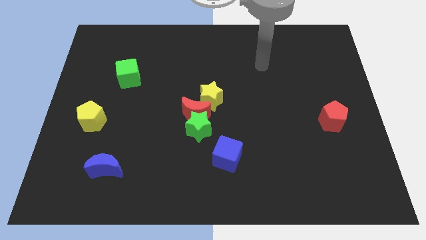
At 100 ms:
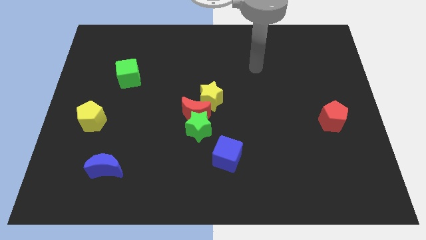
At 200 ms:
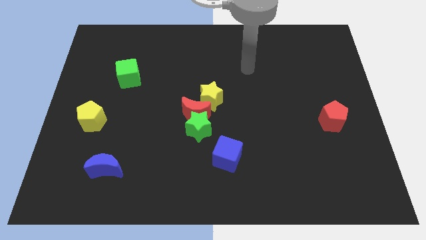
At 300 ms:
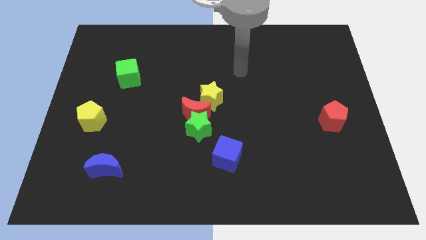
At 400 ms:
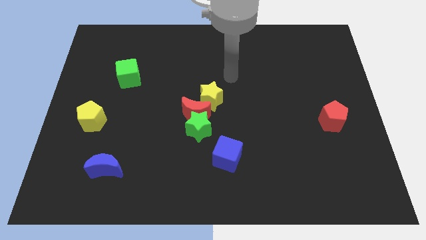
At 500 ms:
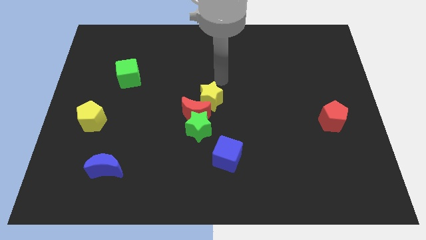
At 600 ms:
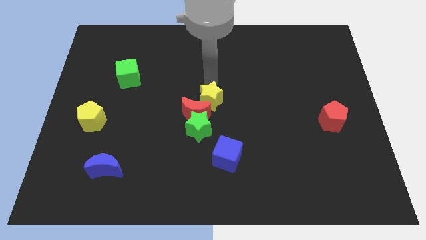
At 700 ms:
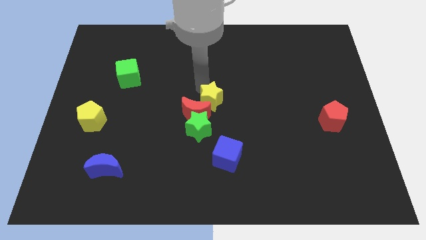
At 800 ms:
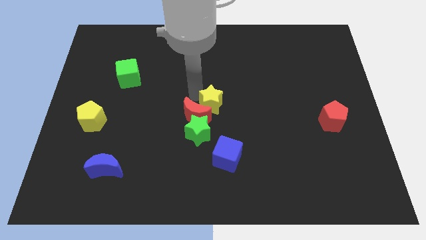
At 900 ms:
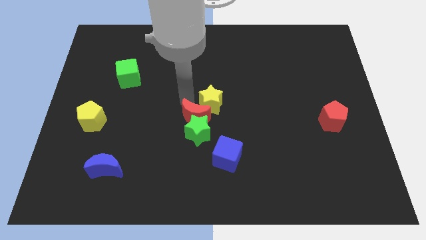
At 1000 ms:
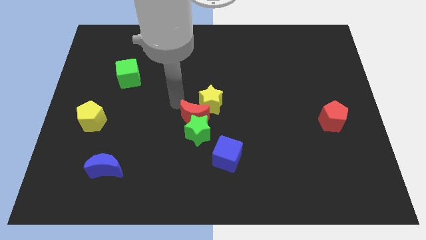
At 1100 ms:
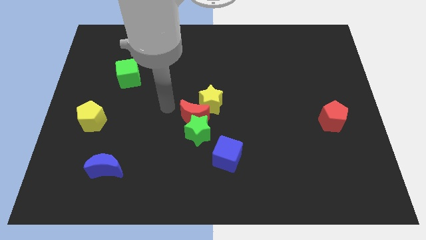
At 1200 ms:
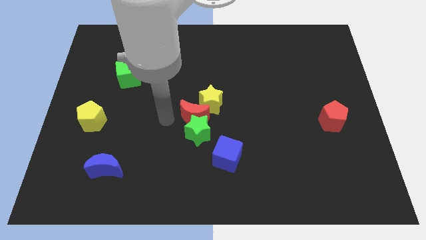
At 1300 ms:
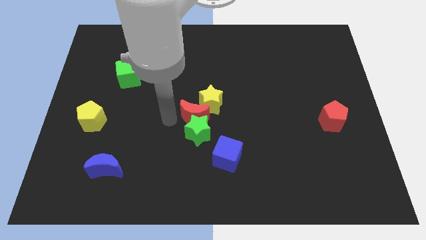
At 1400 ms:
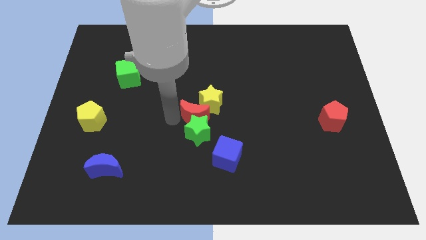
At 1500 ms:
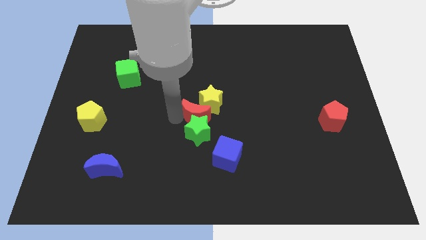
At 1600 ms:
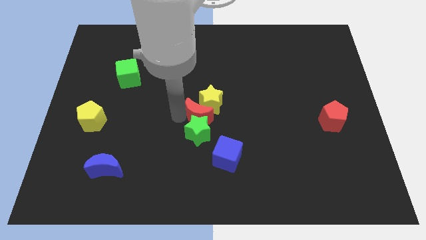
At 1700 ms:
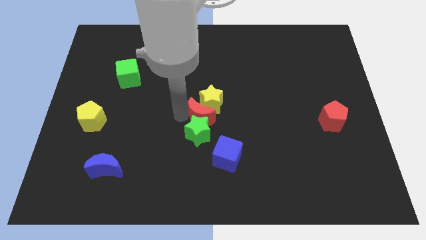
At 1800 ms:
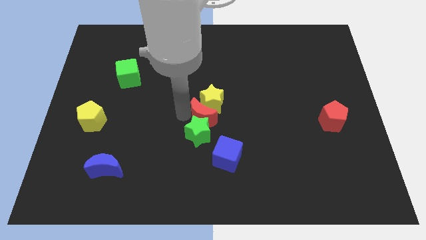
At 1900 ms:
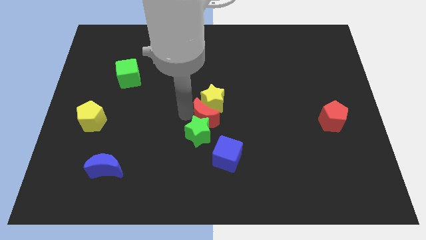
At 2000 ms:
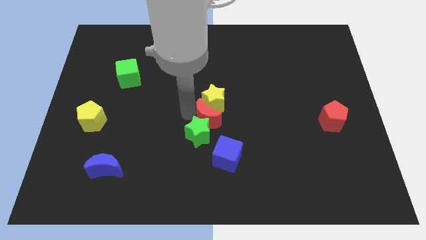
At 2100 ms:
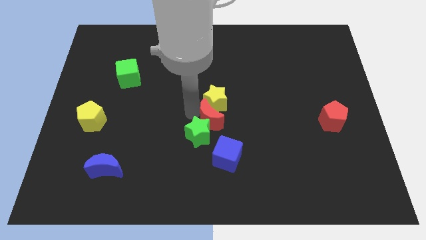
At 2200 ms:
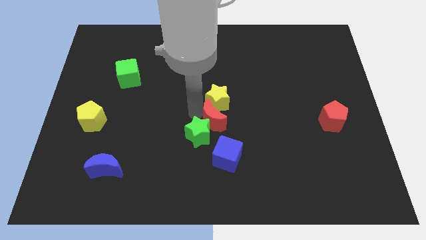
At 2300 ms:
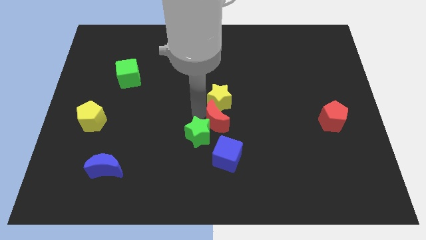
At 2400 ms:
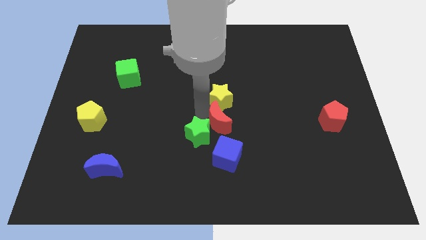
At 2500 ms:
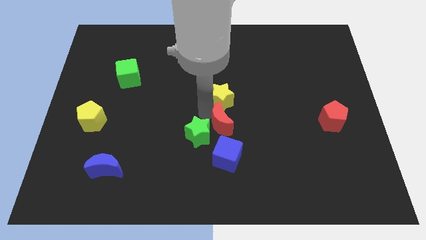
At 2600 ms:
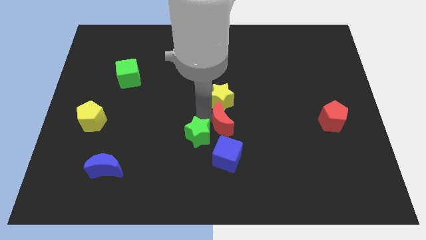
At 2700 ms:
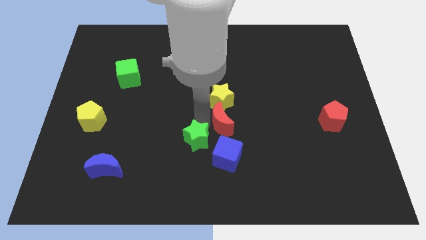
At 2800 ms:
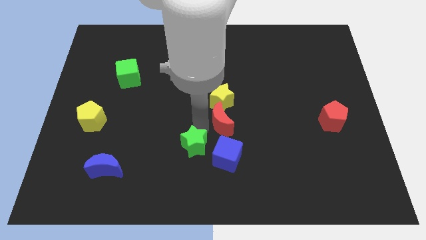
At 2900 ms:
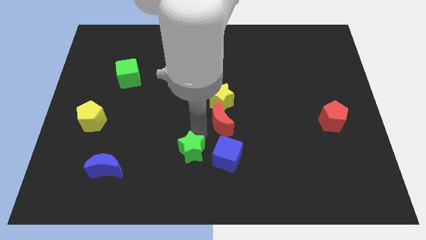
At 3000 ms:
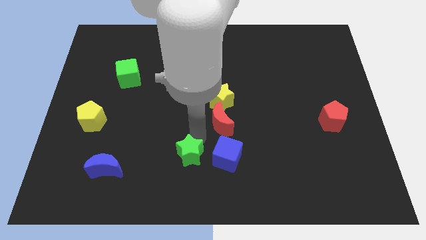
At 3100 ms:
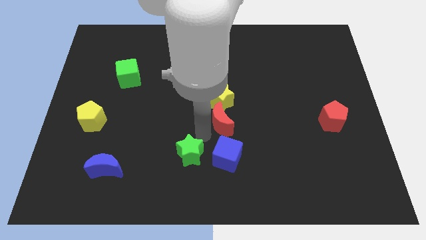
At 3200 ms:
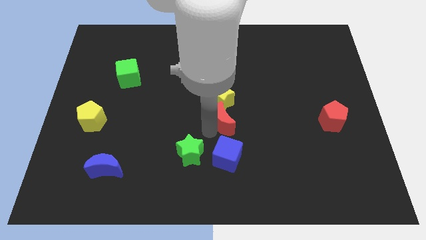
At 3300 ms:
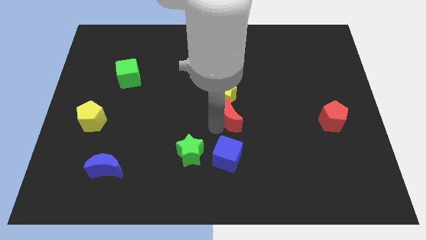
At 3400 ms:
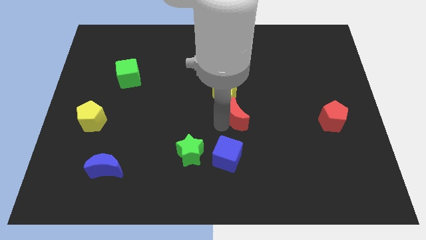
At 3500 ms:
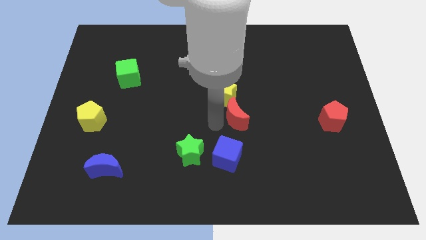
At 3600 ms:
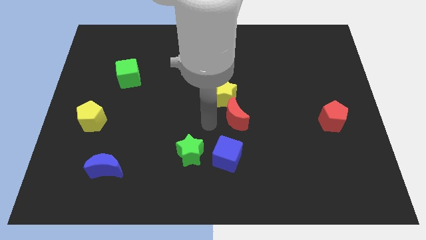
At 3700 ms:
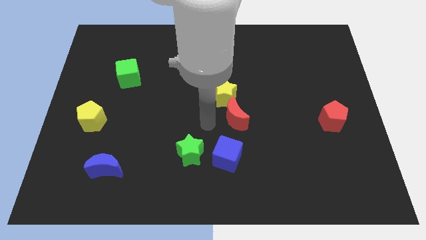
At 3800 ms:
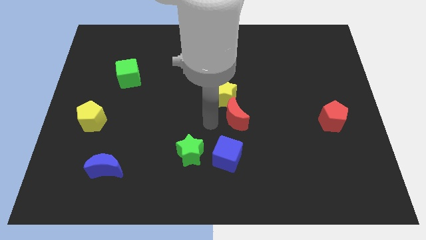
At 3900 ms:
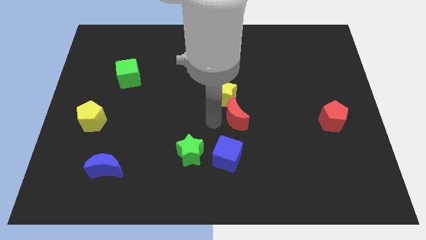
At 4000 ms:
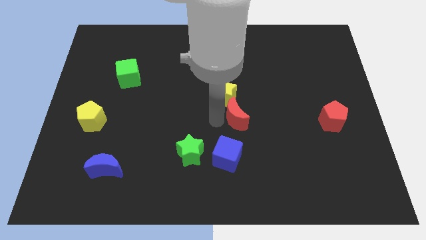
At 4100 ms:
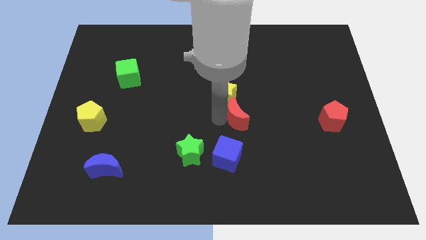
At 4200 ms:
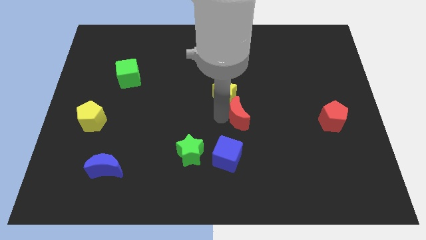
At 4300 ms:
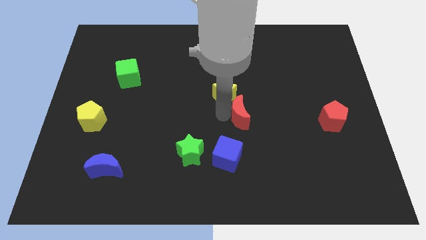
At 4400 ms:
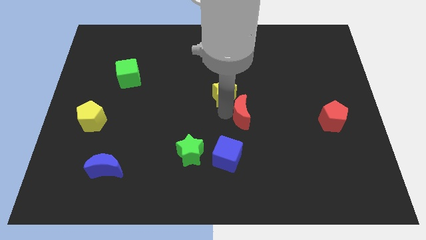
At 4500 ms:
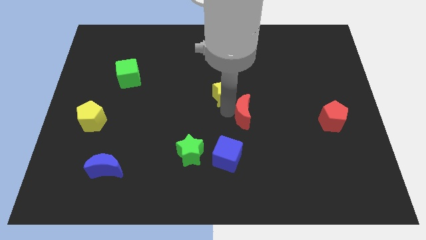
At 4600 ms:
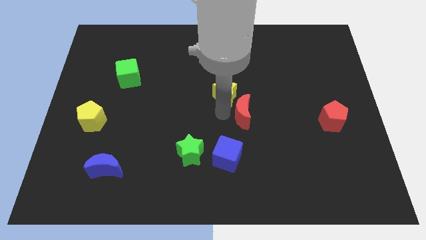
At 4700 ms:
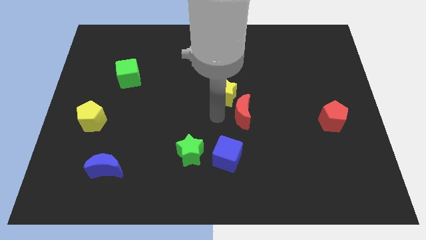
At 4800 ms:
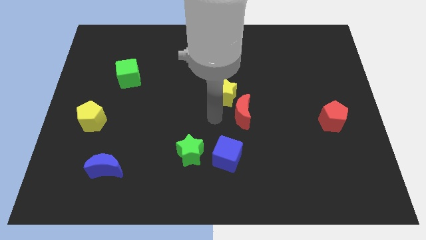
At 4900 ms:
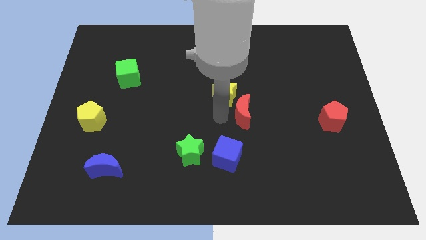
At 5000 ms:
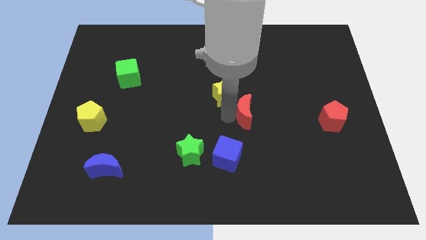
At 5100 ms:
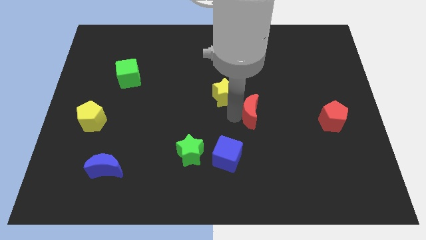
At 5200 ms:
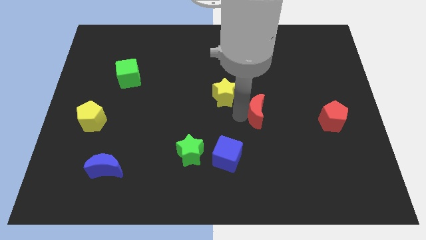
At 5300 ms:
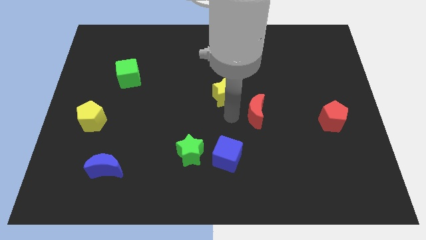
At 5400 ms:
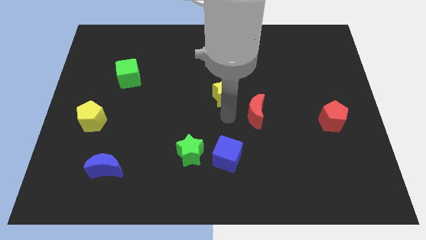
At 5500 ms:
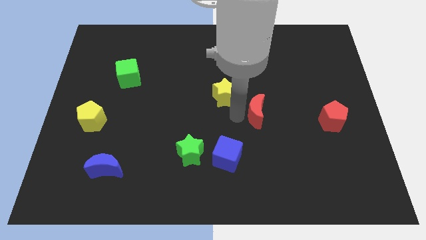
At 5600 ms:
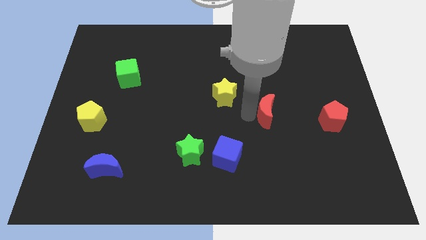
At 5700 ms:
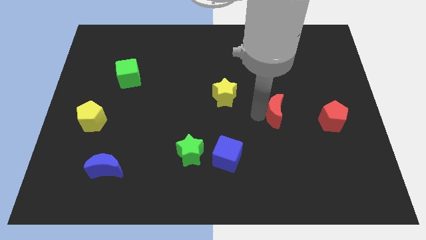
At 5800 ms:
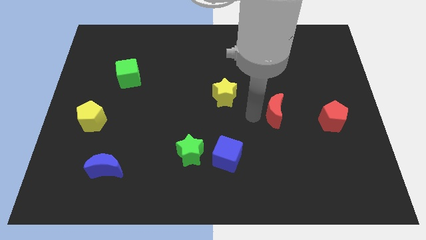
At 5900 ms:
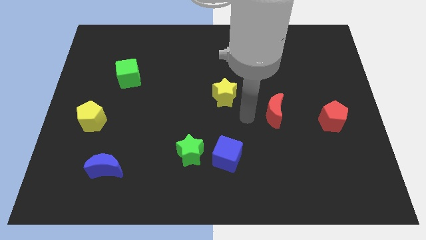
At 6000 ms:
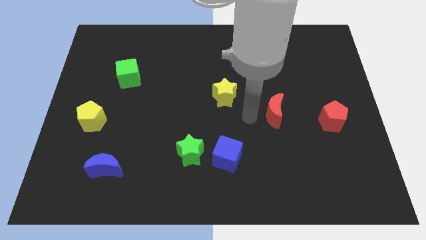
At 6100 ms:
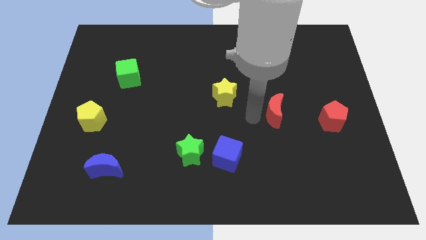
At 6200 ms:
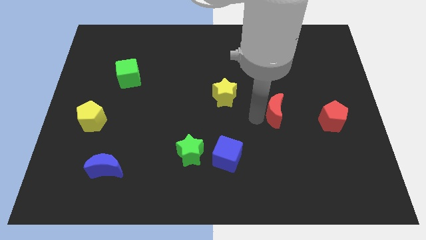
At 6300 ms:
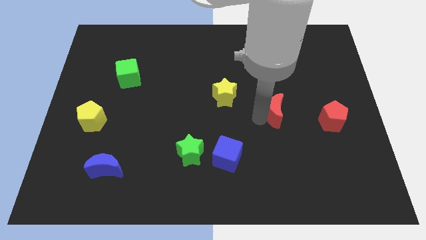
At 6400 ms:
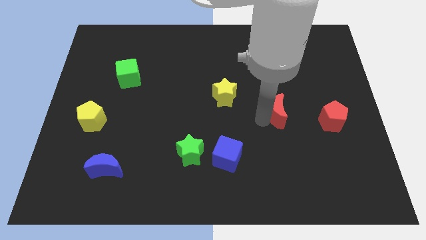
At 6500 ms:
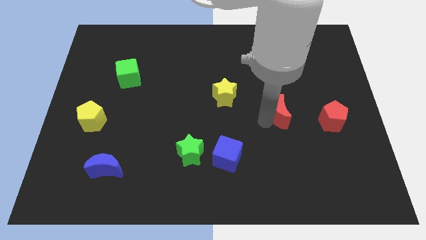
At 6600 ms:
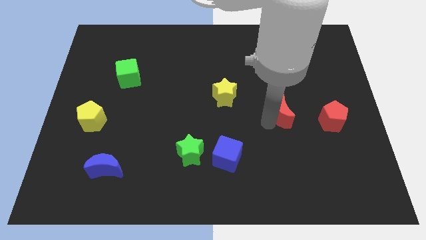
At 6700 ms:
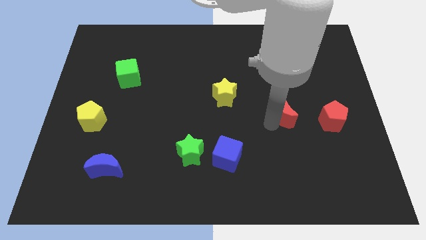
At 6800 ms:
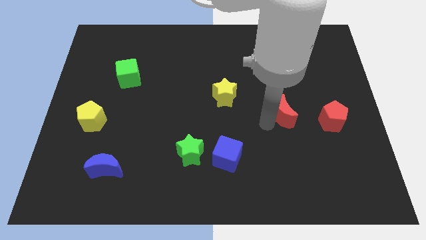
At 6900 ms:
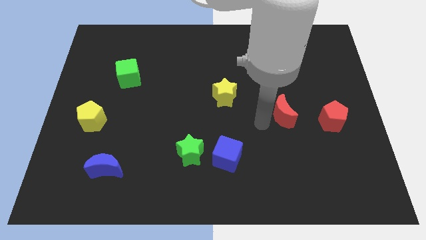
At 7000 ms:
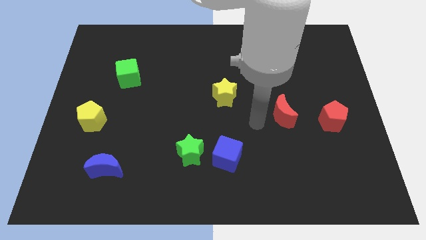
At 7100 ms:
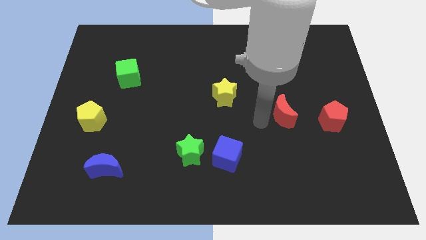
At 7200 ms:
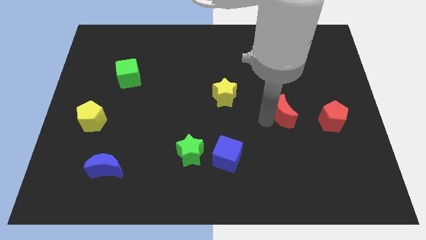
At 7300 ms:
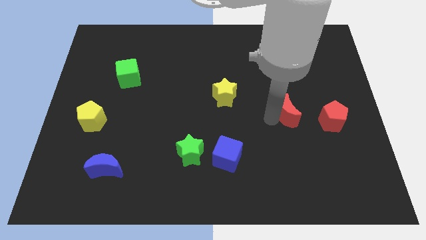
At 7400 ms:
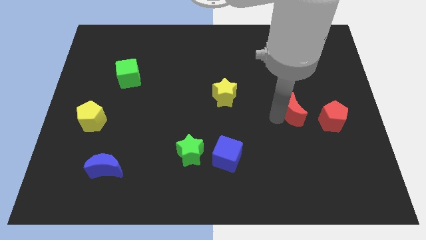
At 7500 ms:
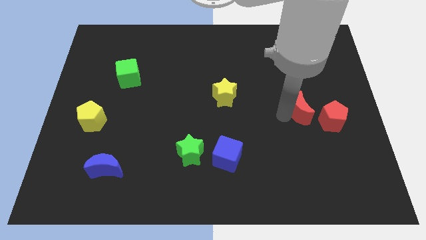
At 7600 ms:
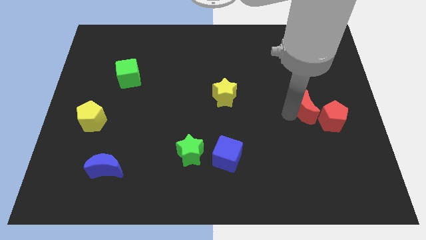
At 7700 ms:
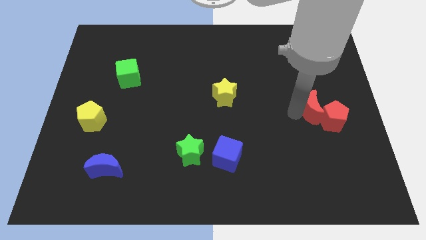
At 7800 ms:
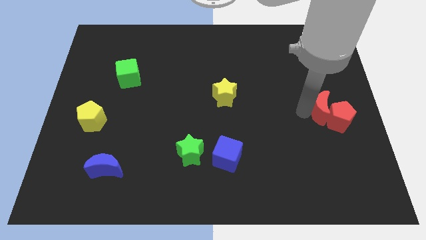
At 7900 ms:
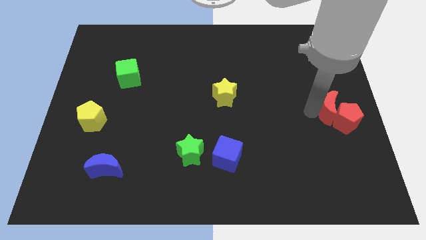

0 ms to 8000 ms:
move the red moon to the center right
